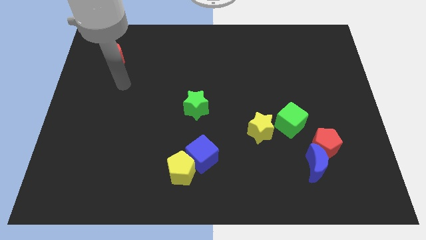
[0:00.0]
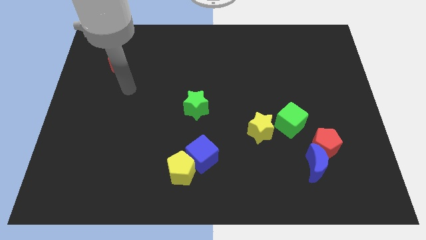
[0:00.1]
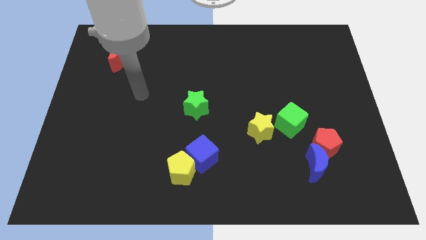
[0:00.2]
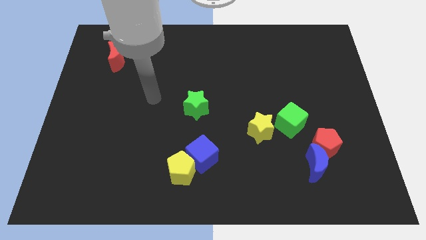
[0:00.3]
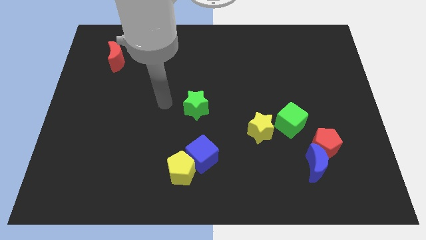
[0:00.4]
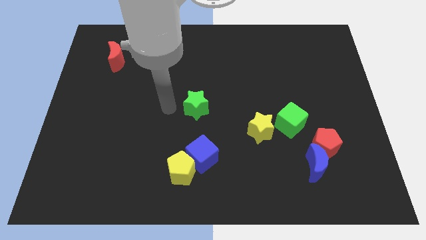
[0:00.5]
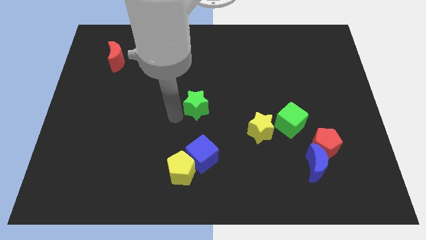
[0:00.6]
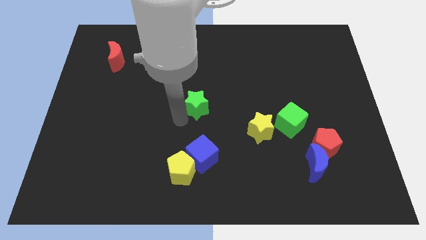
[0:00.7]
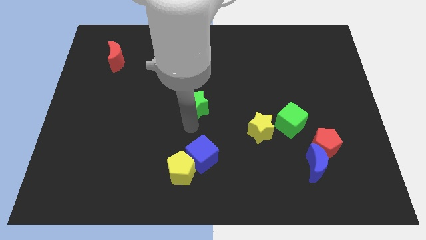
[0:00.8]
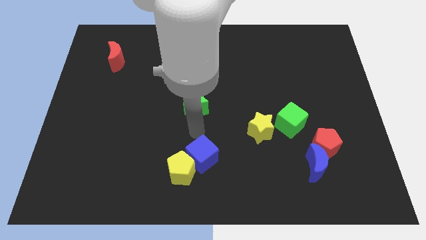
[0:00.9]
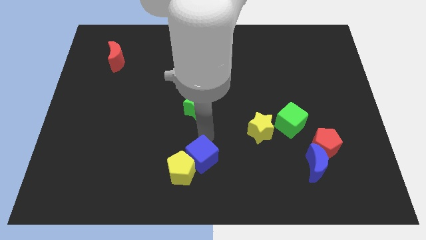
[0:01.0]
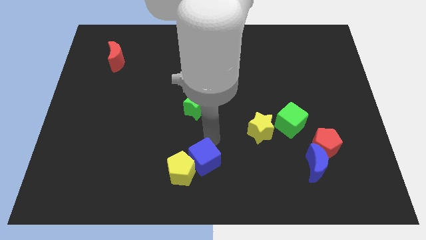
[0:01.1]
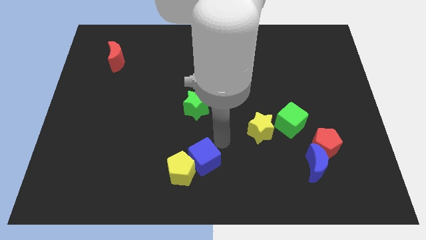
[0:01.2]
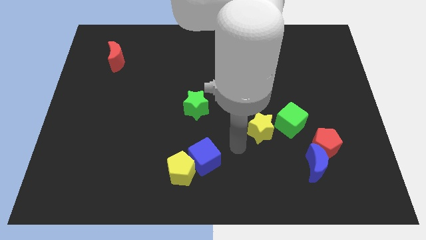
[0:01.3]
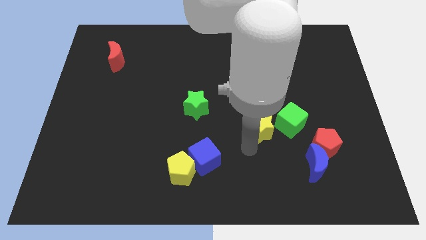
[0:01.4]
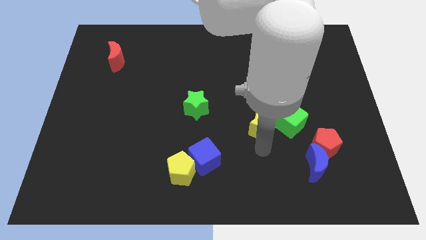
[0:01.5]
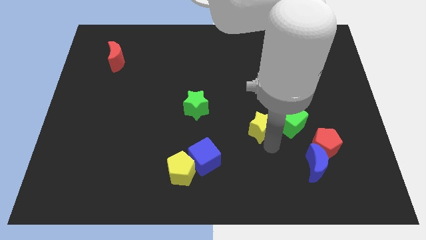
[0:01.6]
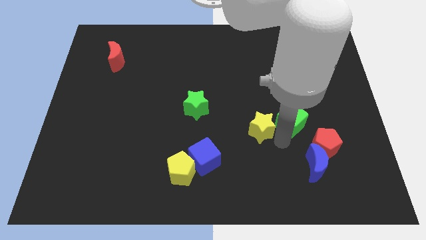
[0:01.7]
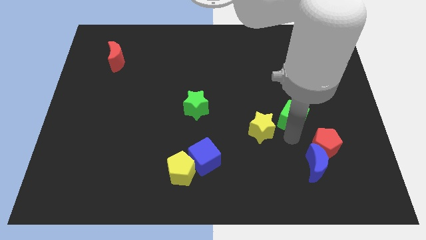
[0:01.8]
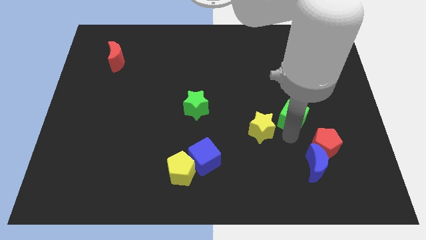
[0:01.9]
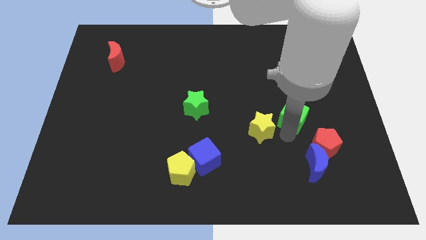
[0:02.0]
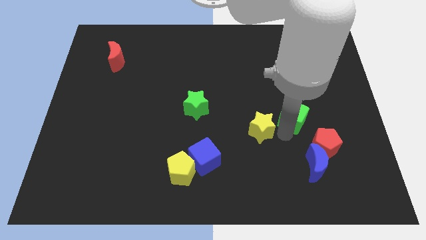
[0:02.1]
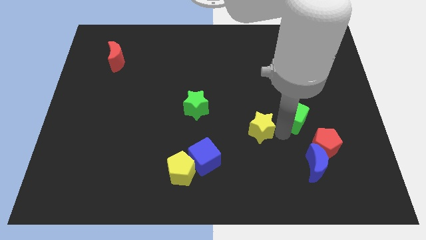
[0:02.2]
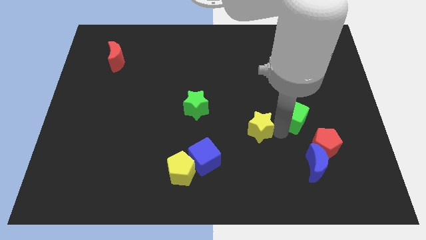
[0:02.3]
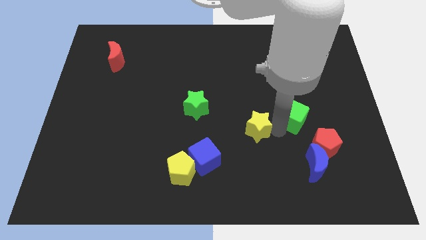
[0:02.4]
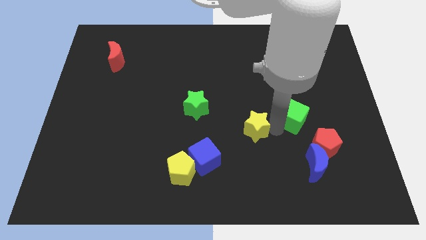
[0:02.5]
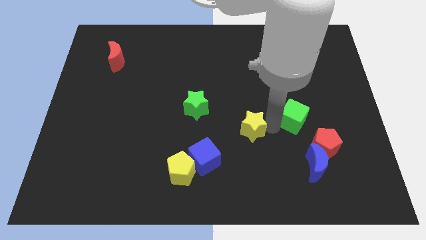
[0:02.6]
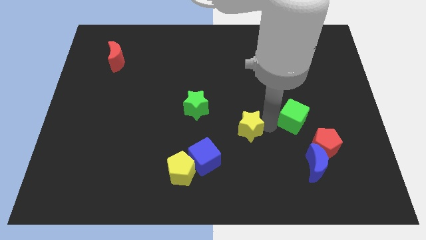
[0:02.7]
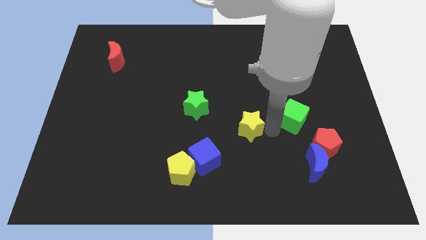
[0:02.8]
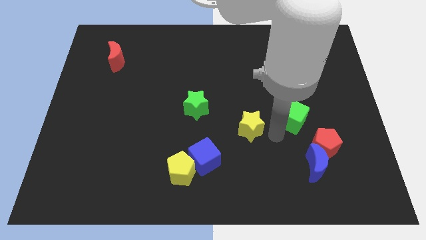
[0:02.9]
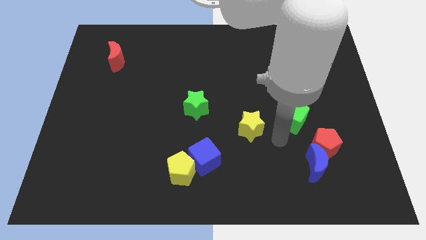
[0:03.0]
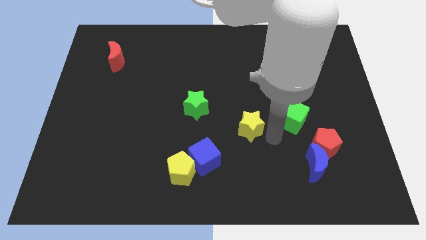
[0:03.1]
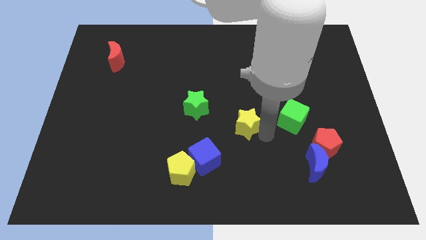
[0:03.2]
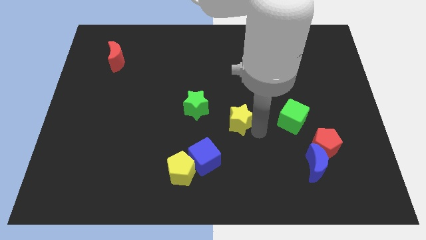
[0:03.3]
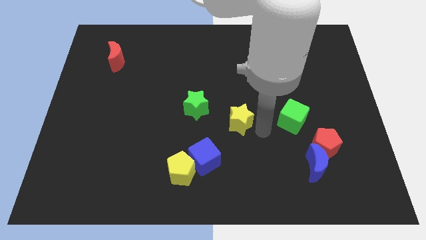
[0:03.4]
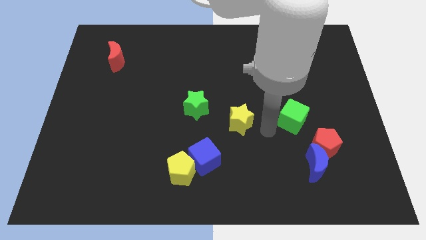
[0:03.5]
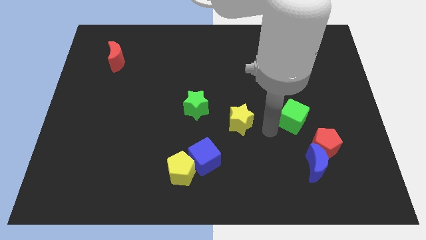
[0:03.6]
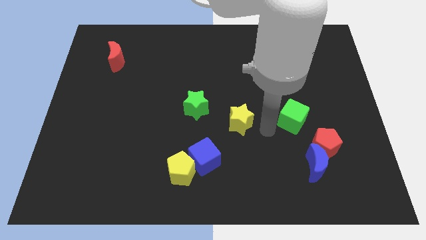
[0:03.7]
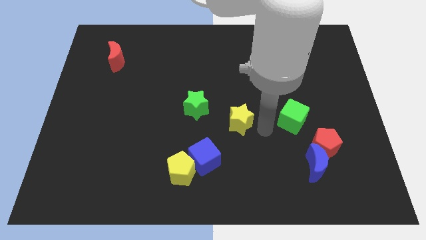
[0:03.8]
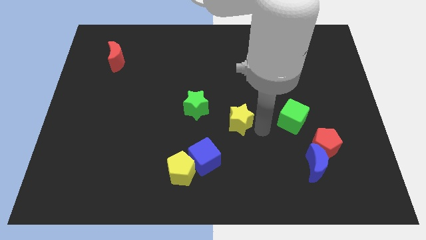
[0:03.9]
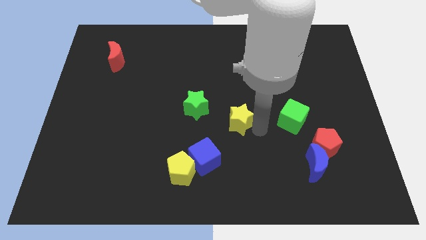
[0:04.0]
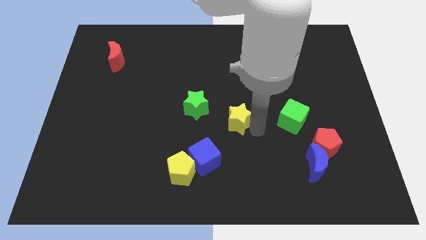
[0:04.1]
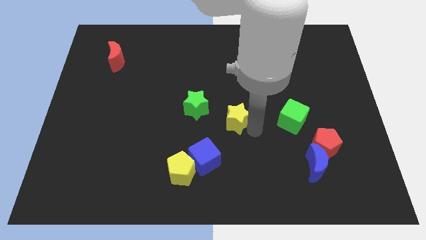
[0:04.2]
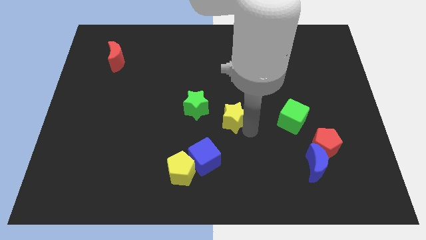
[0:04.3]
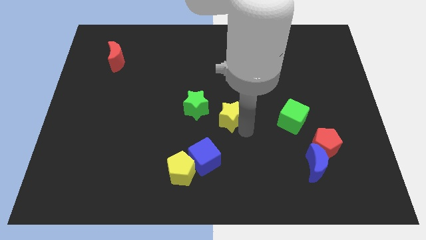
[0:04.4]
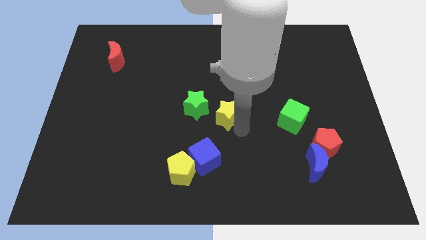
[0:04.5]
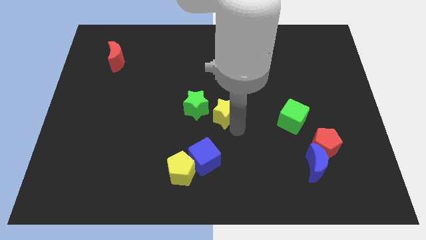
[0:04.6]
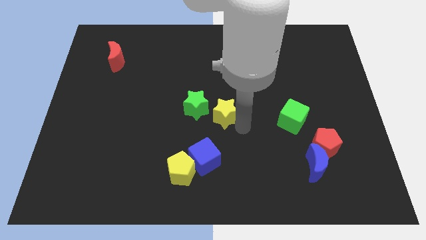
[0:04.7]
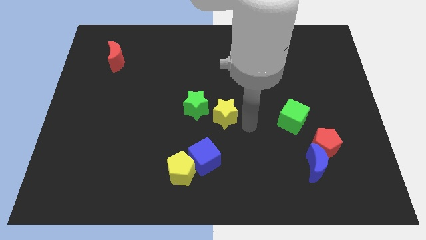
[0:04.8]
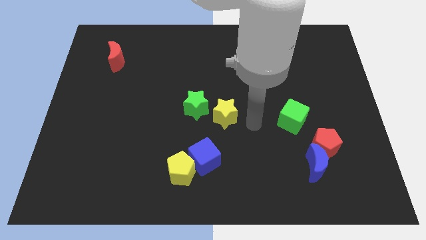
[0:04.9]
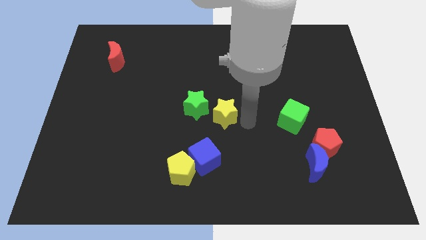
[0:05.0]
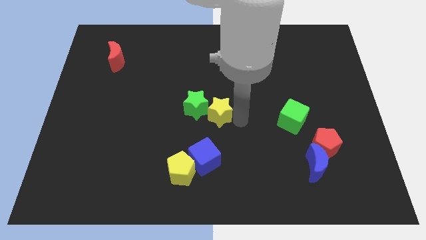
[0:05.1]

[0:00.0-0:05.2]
push the yellow star to the green star

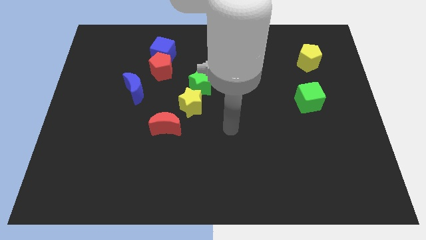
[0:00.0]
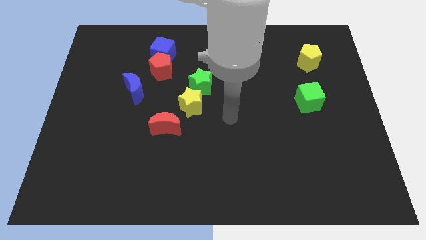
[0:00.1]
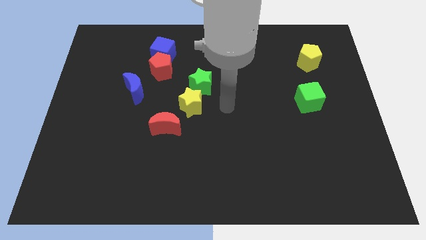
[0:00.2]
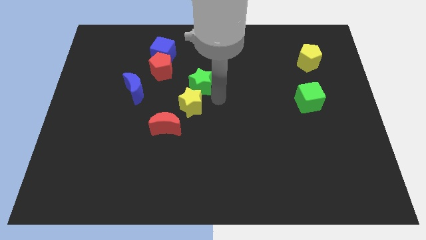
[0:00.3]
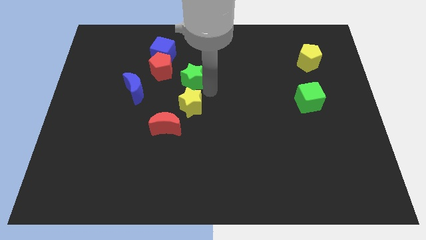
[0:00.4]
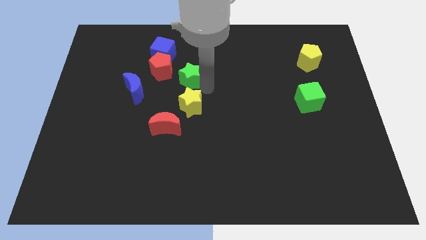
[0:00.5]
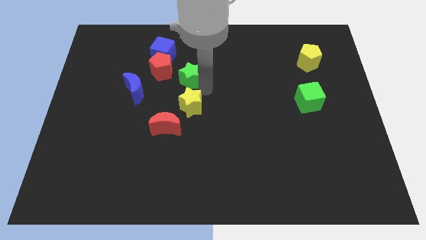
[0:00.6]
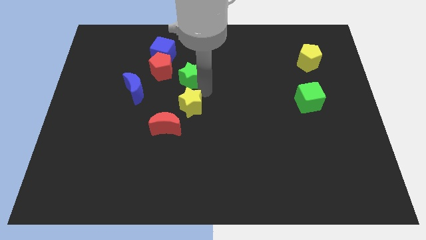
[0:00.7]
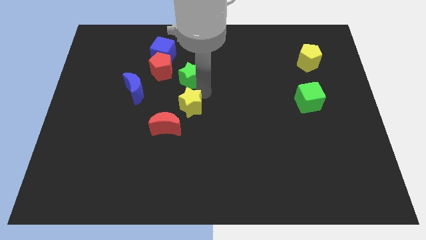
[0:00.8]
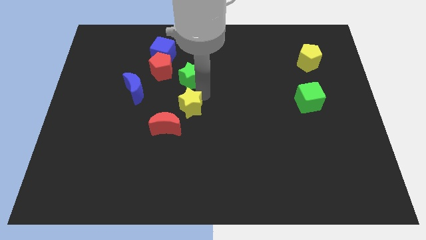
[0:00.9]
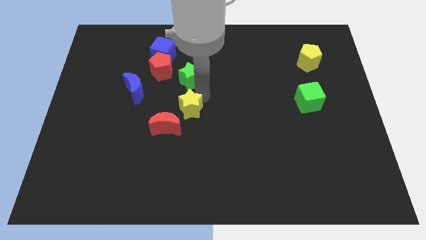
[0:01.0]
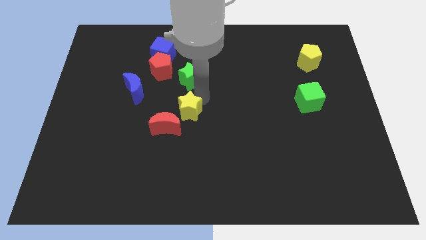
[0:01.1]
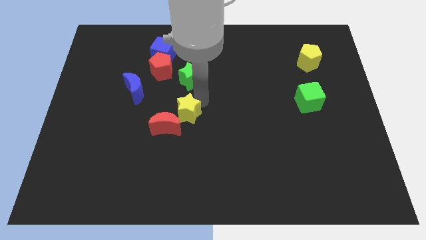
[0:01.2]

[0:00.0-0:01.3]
move the yellow star to the red moon
